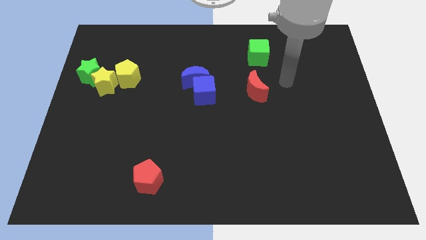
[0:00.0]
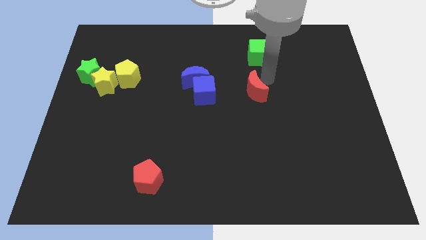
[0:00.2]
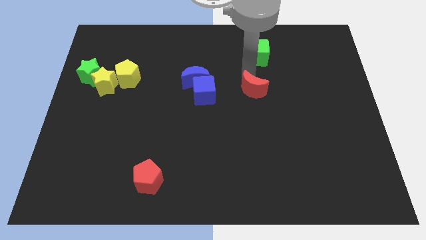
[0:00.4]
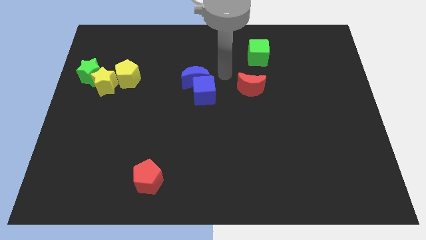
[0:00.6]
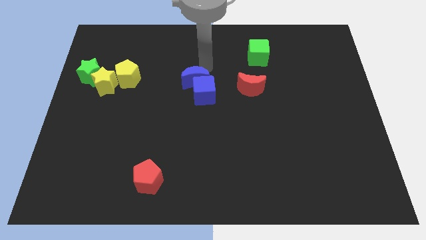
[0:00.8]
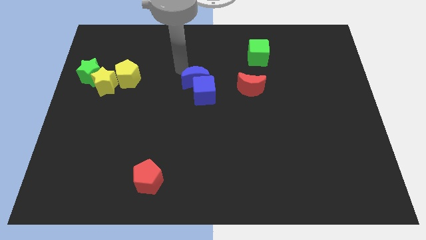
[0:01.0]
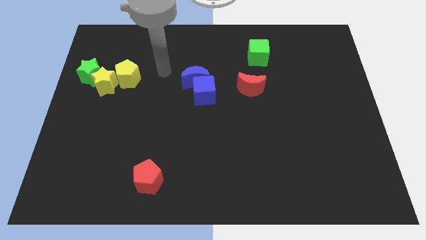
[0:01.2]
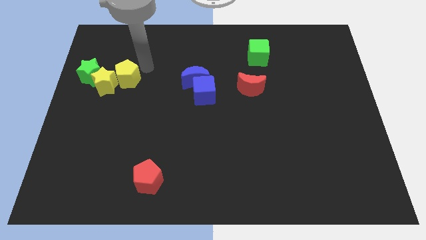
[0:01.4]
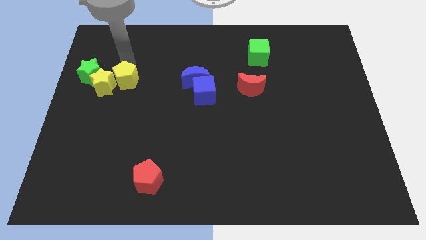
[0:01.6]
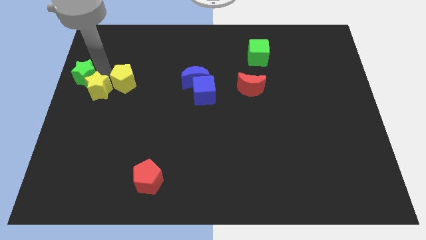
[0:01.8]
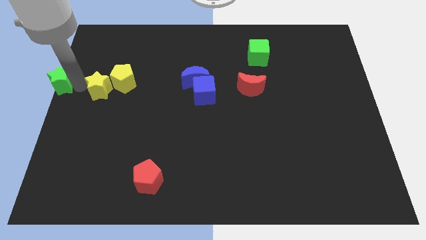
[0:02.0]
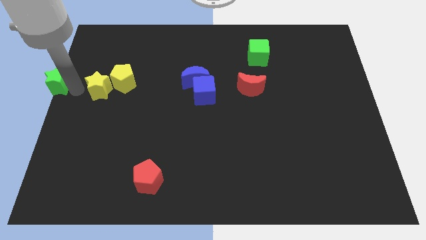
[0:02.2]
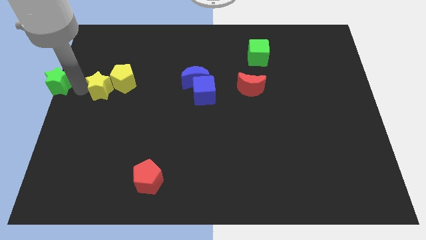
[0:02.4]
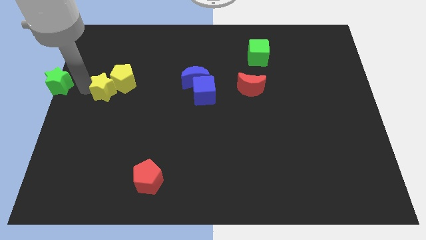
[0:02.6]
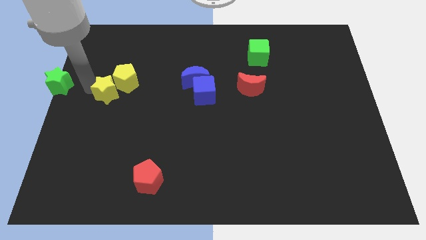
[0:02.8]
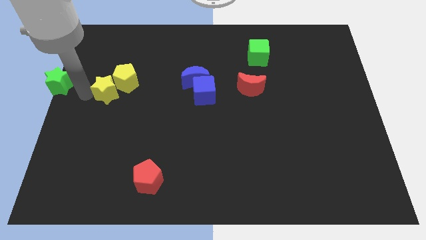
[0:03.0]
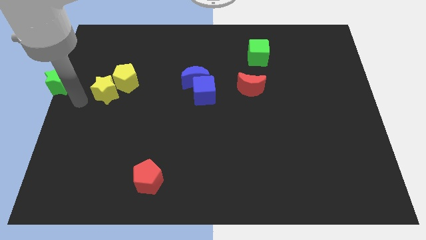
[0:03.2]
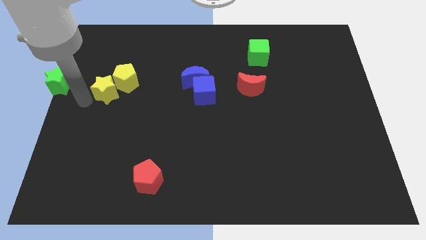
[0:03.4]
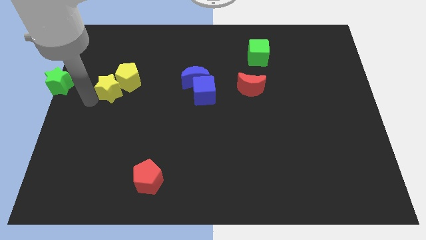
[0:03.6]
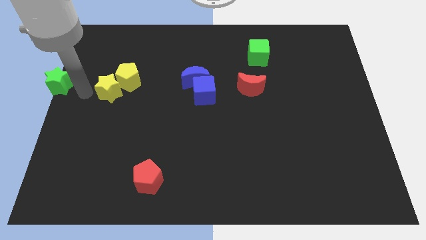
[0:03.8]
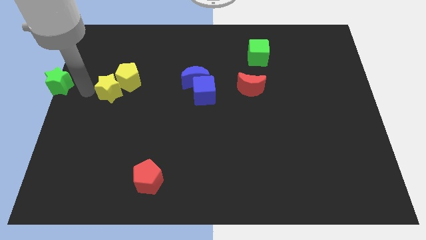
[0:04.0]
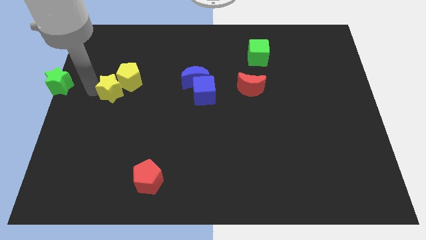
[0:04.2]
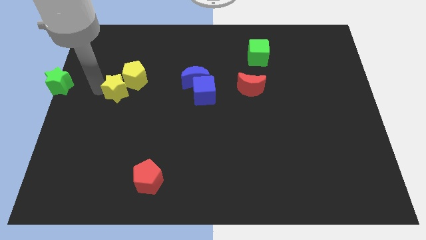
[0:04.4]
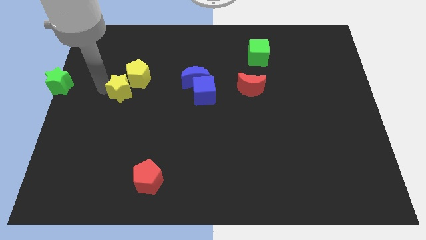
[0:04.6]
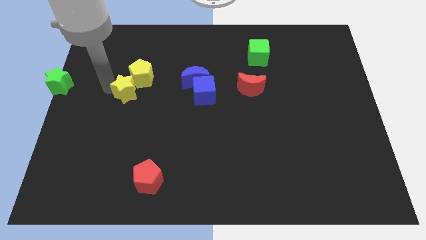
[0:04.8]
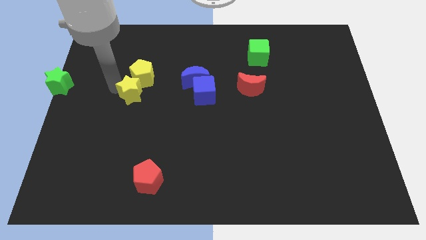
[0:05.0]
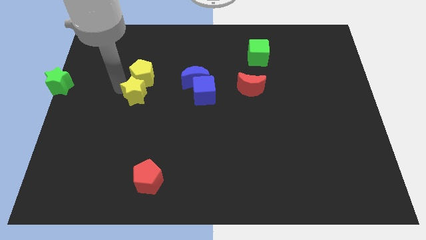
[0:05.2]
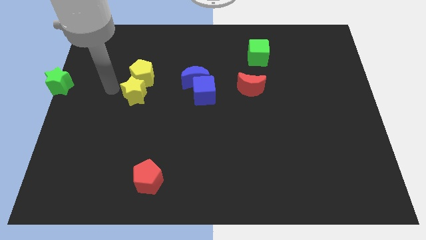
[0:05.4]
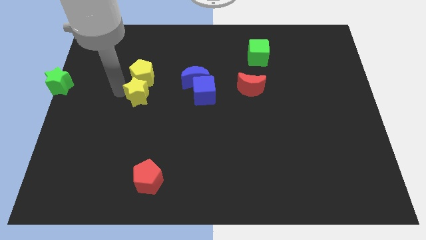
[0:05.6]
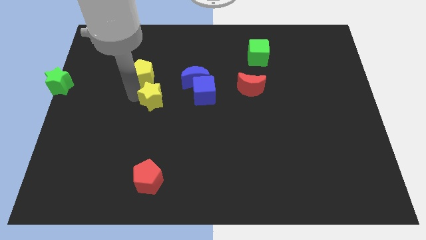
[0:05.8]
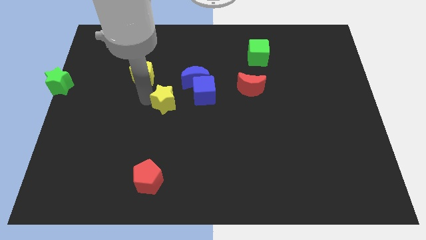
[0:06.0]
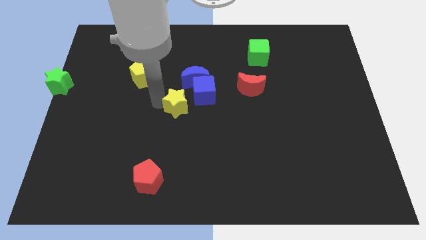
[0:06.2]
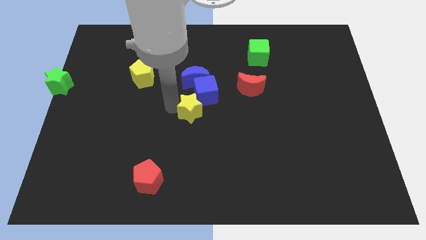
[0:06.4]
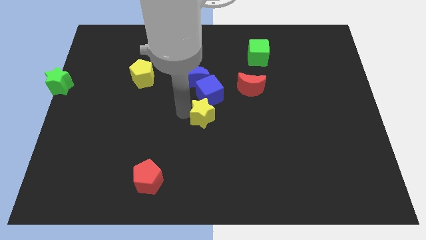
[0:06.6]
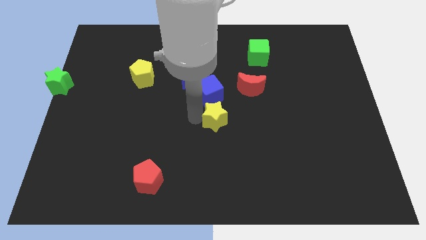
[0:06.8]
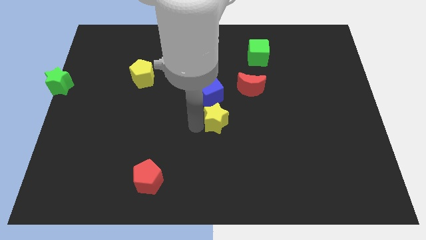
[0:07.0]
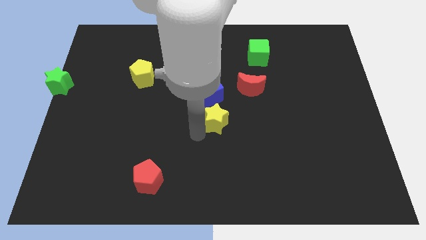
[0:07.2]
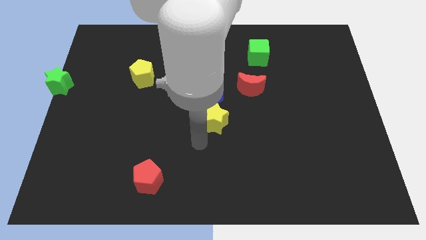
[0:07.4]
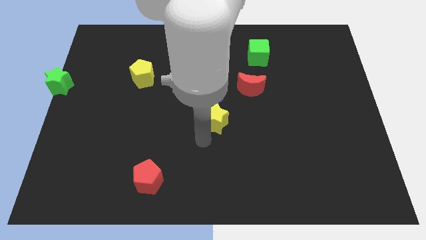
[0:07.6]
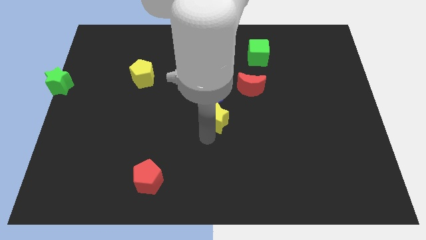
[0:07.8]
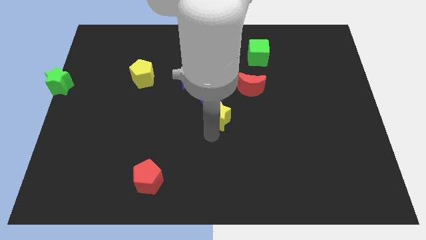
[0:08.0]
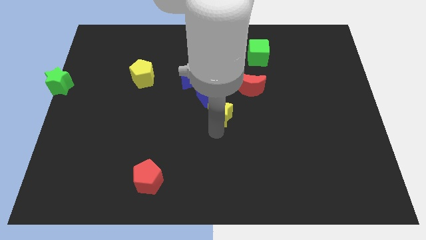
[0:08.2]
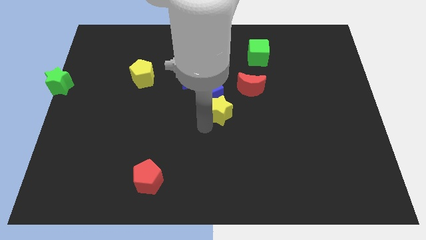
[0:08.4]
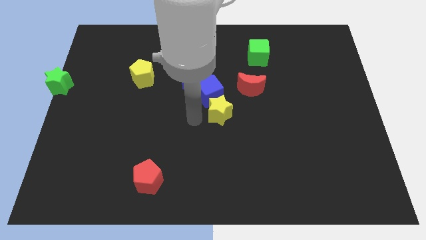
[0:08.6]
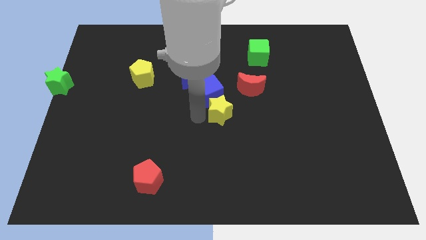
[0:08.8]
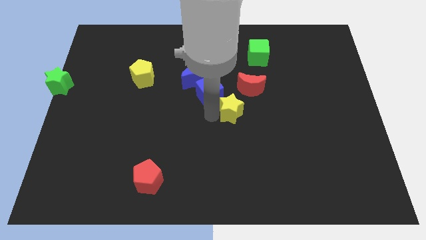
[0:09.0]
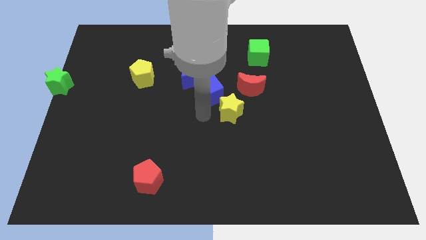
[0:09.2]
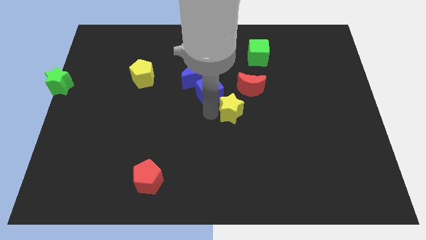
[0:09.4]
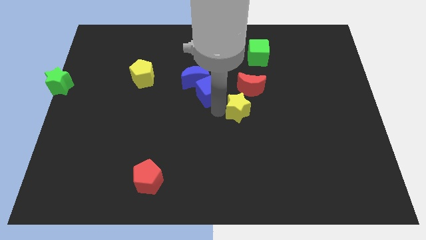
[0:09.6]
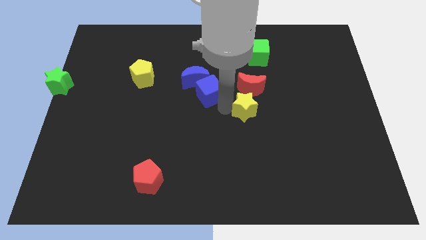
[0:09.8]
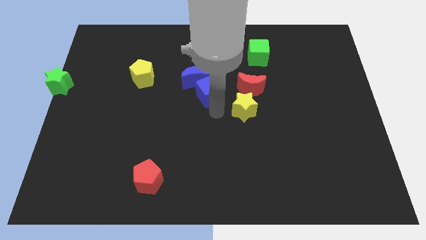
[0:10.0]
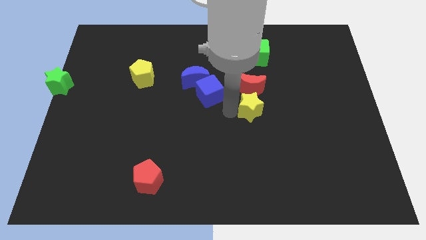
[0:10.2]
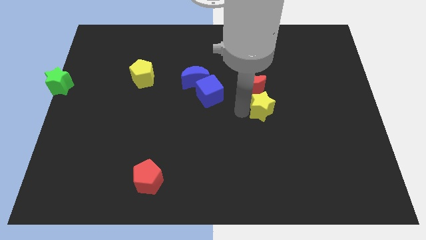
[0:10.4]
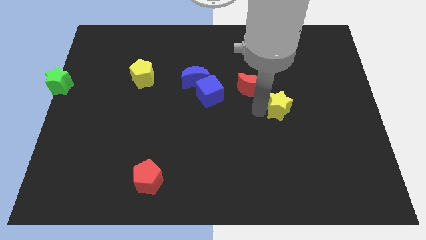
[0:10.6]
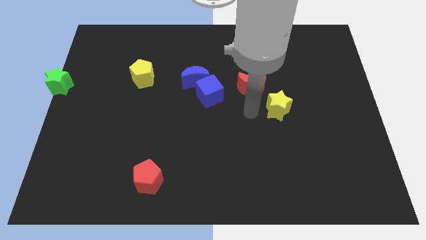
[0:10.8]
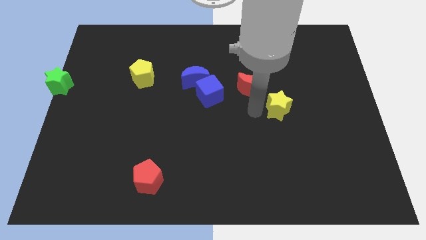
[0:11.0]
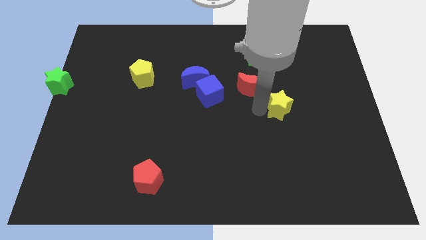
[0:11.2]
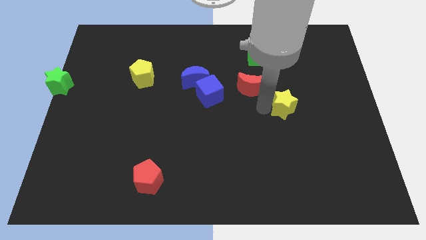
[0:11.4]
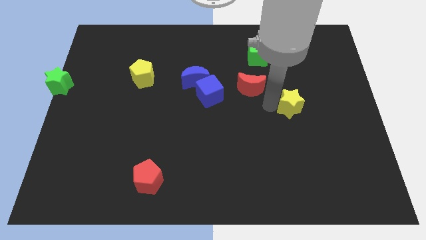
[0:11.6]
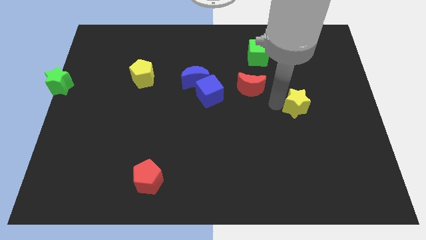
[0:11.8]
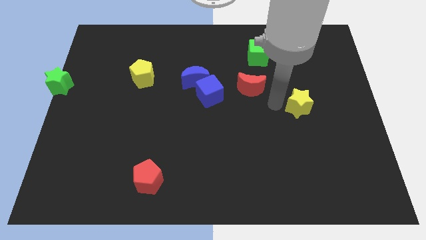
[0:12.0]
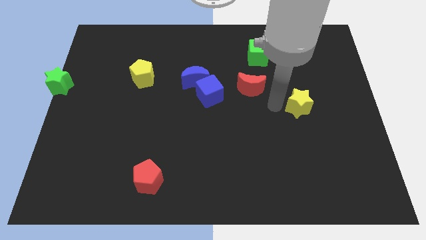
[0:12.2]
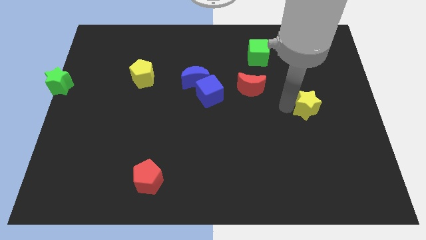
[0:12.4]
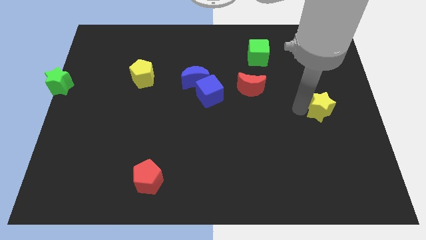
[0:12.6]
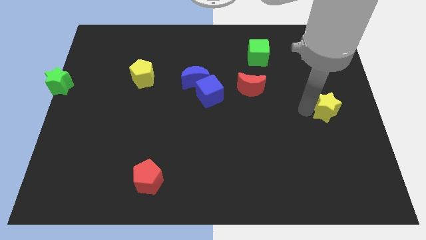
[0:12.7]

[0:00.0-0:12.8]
slide the yellow star to the right side

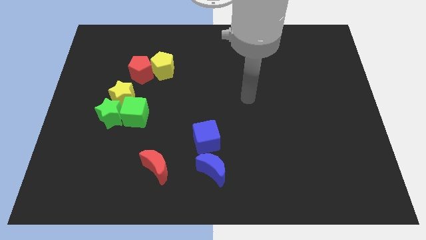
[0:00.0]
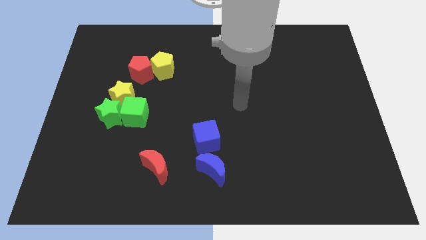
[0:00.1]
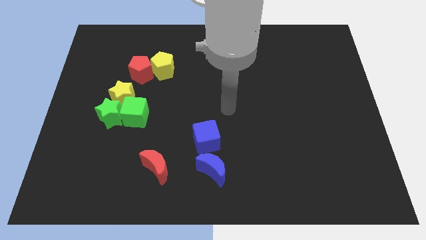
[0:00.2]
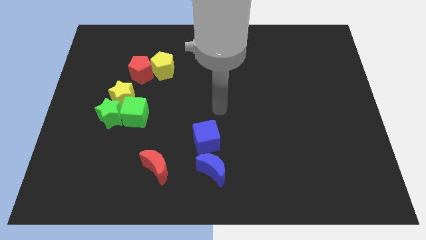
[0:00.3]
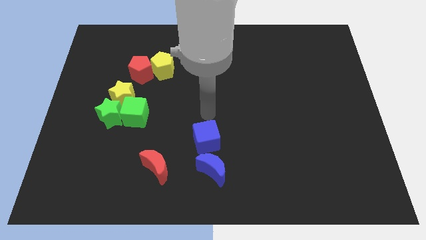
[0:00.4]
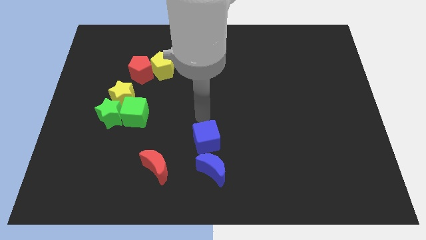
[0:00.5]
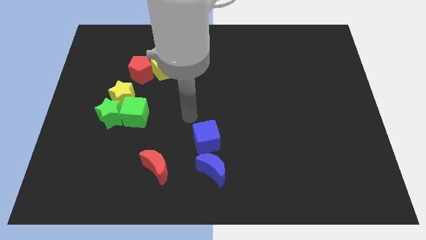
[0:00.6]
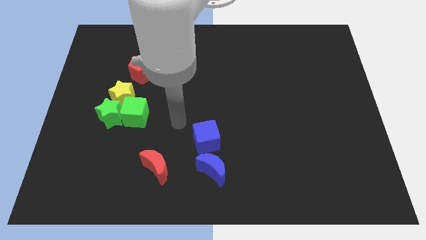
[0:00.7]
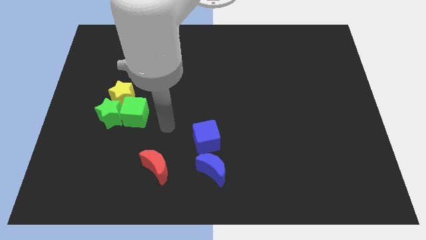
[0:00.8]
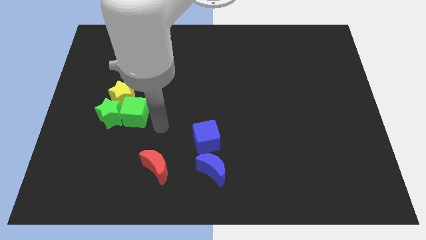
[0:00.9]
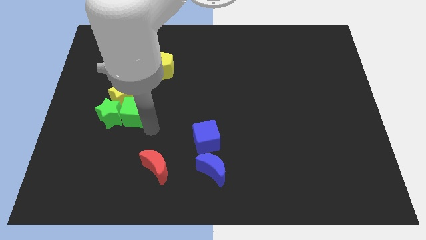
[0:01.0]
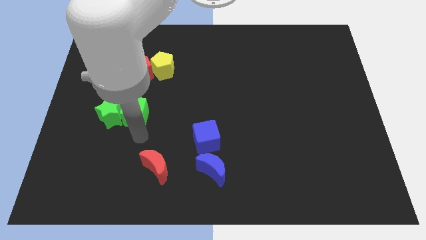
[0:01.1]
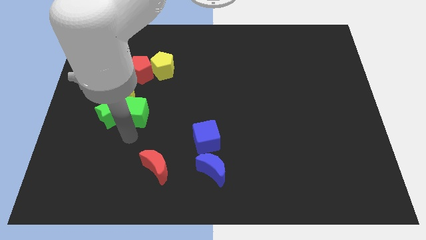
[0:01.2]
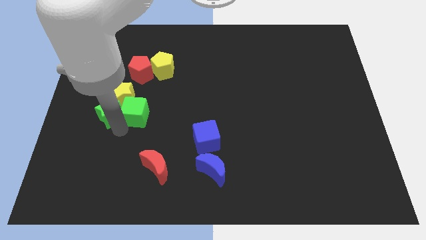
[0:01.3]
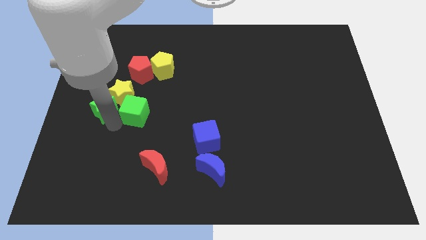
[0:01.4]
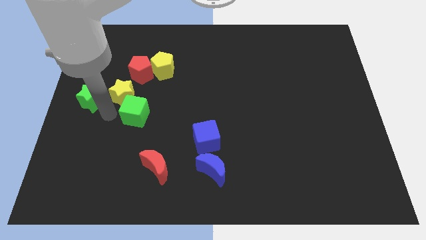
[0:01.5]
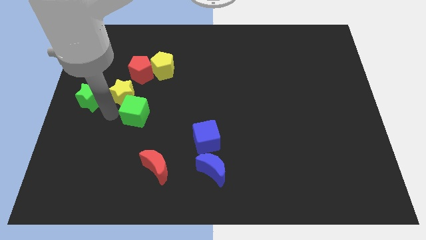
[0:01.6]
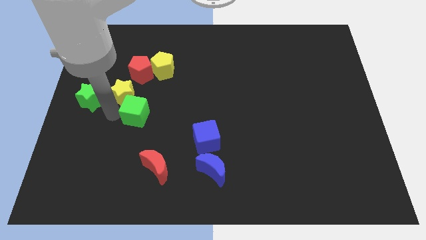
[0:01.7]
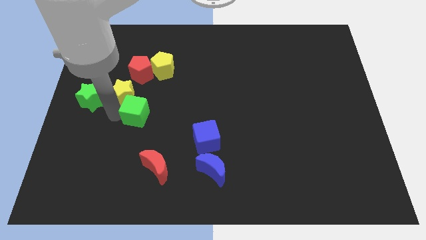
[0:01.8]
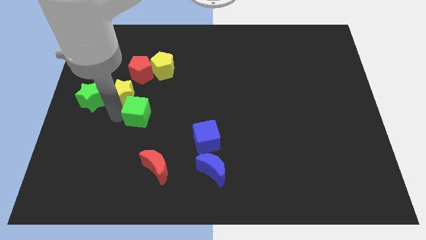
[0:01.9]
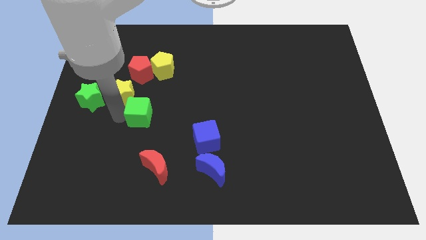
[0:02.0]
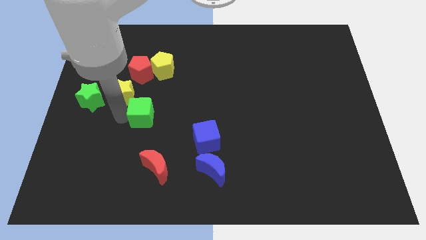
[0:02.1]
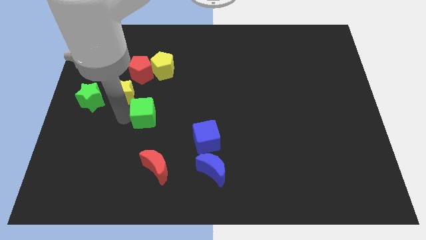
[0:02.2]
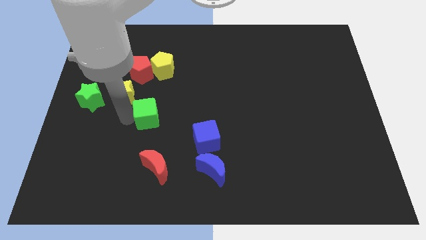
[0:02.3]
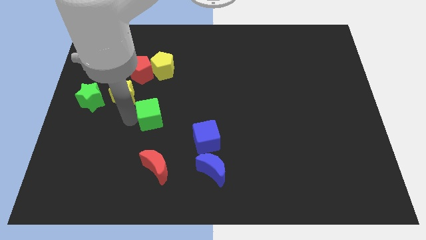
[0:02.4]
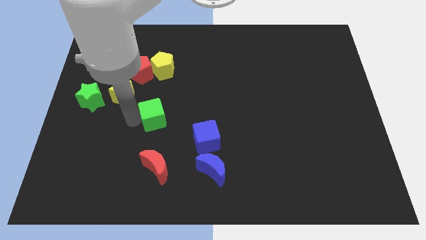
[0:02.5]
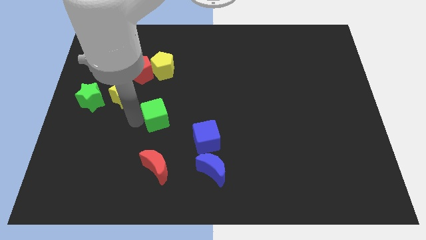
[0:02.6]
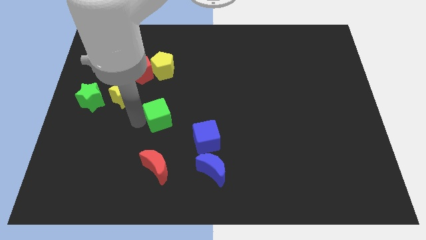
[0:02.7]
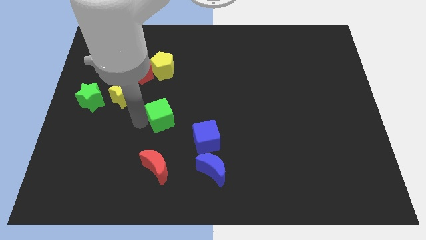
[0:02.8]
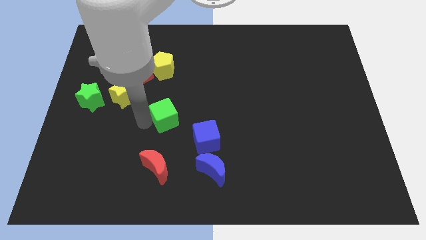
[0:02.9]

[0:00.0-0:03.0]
slide the green cube to the center of the board
